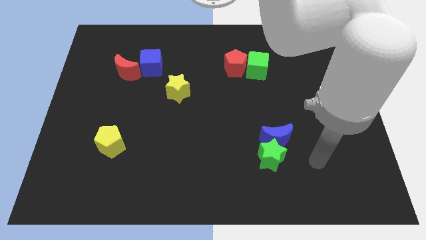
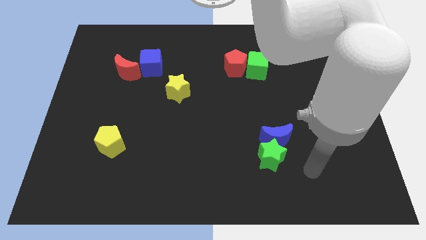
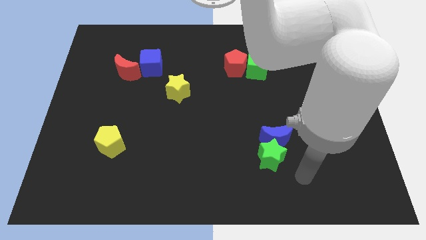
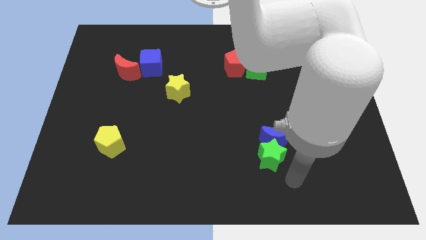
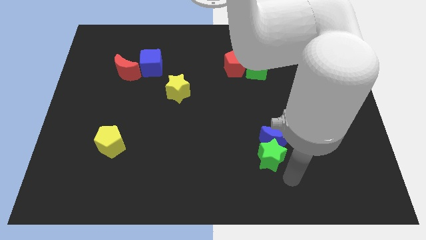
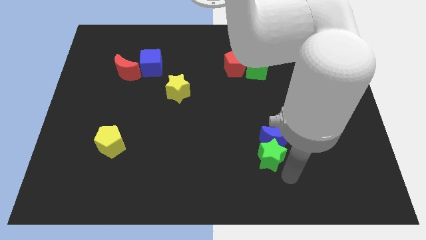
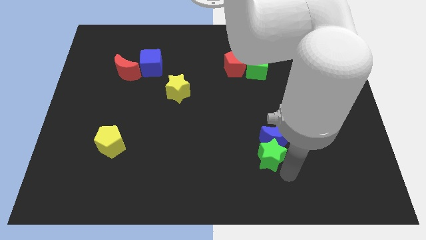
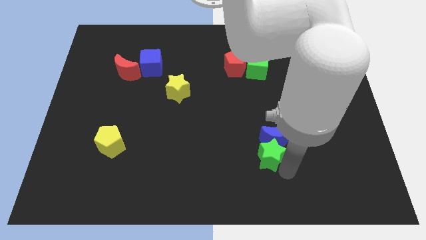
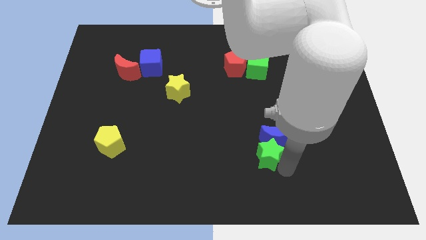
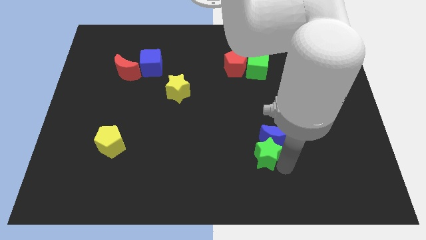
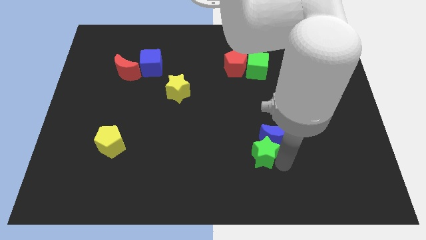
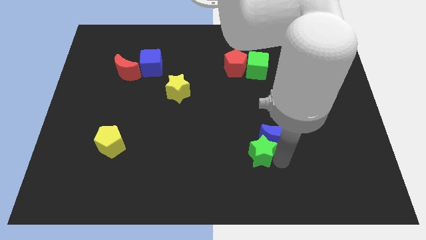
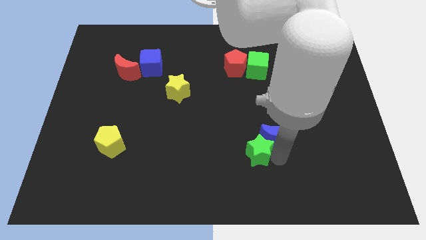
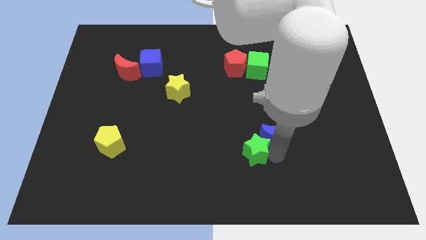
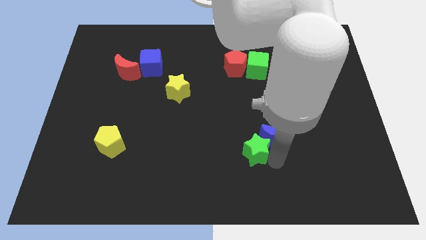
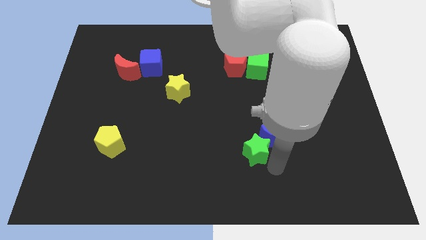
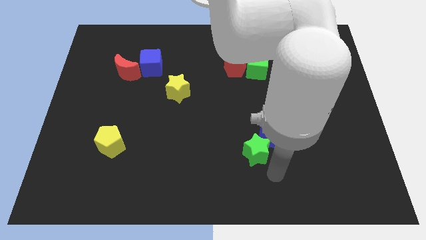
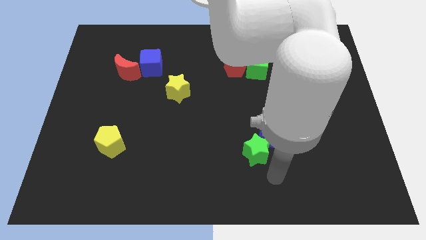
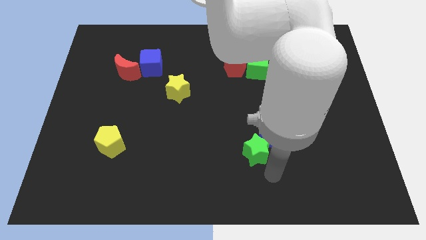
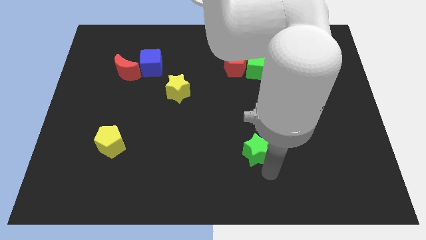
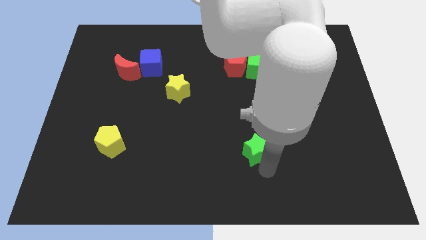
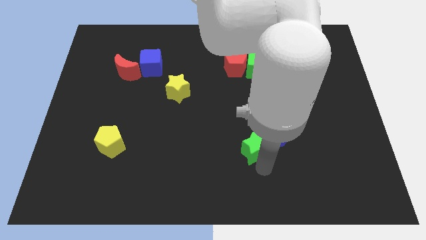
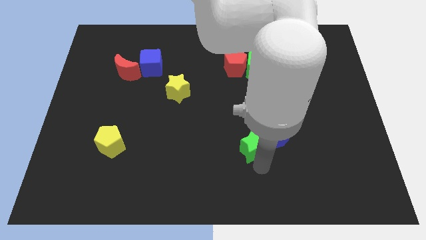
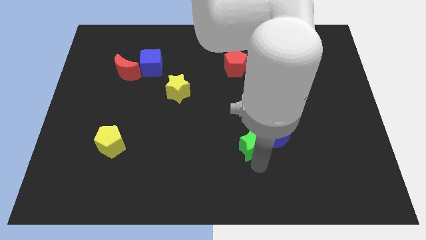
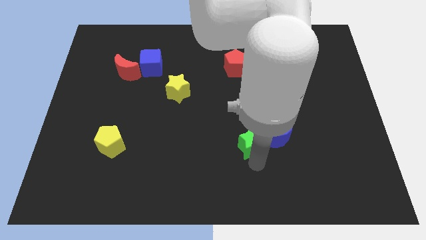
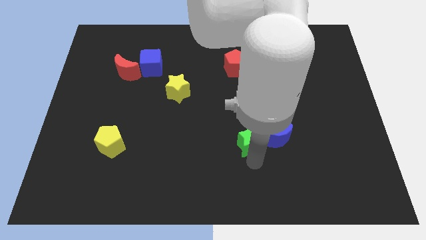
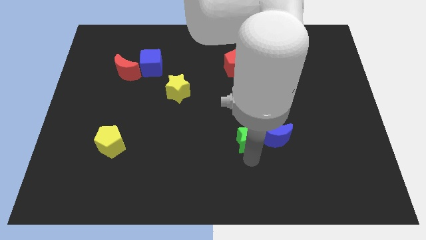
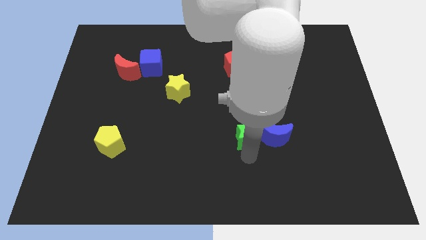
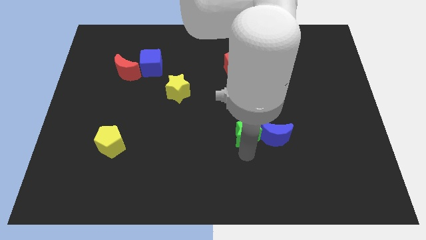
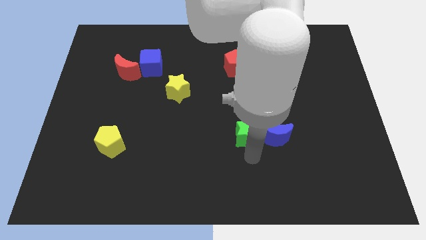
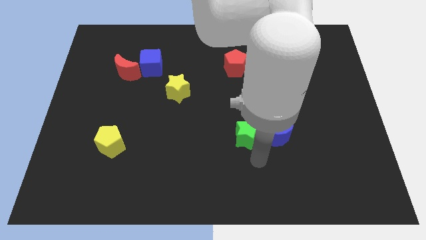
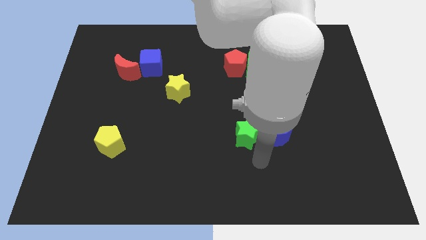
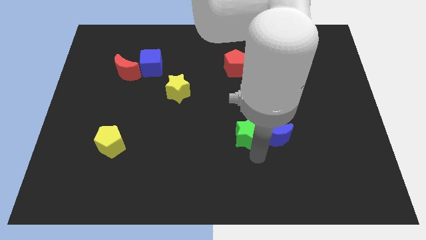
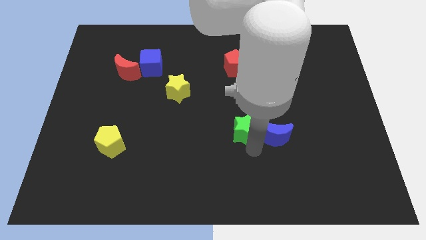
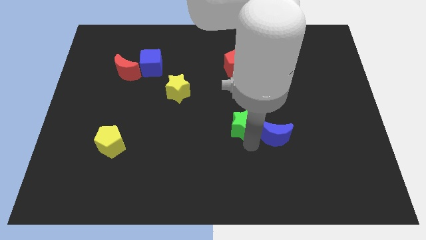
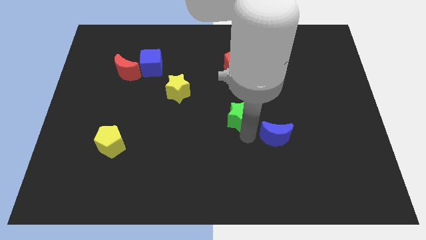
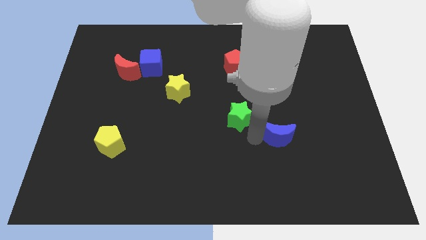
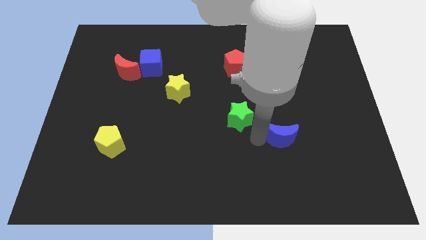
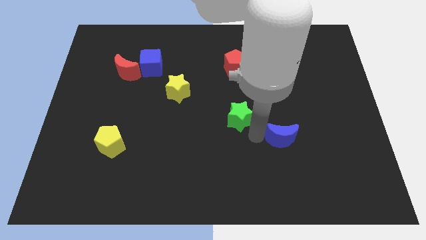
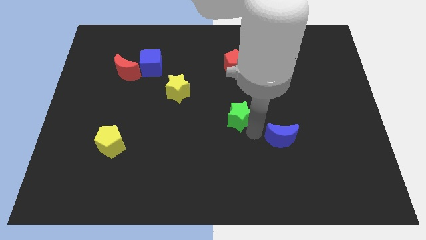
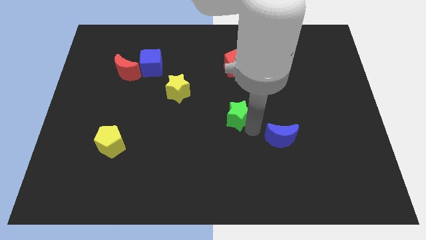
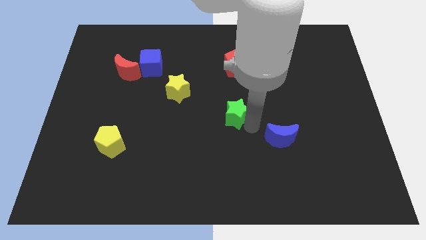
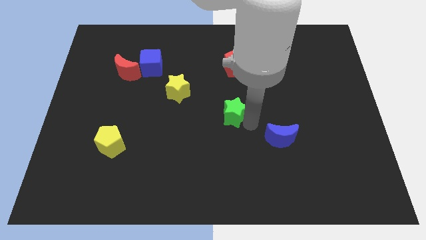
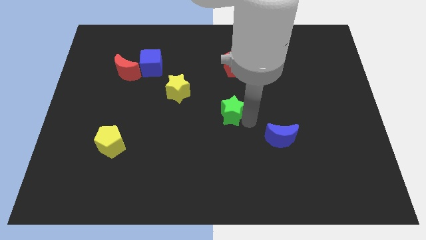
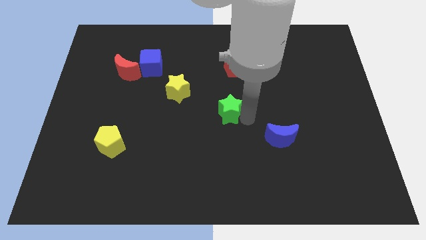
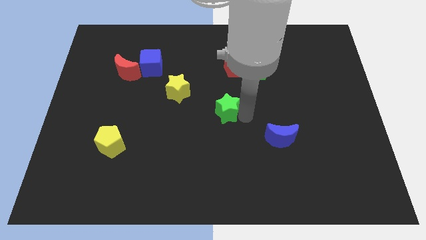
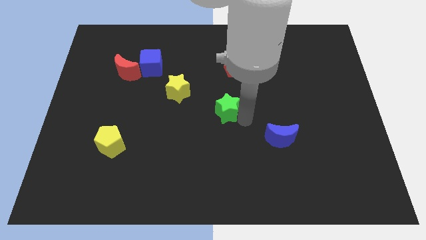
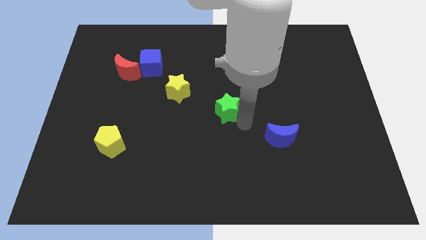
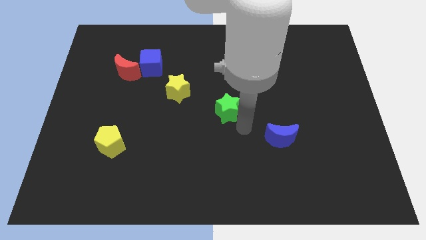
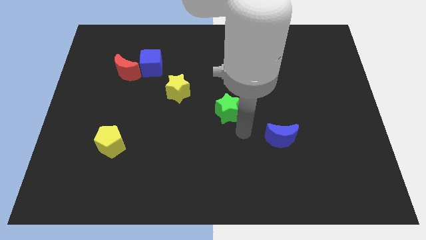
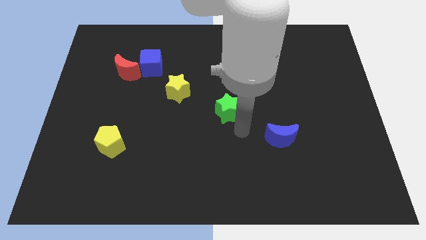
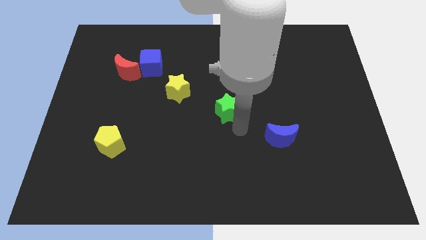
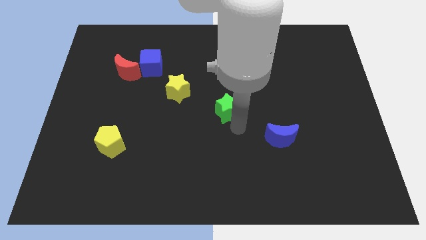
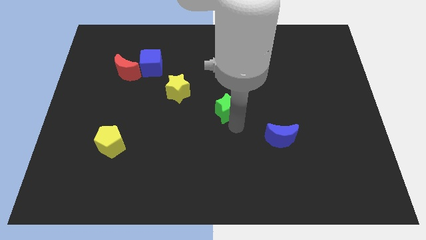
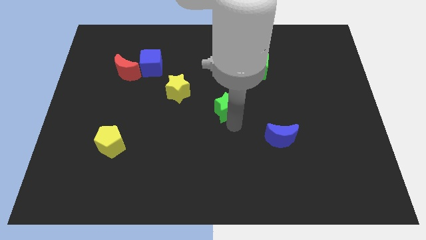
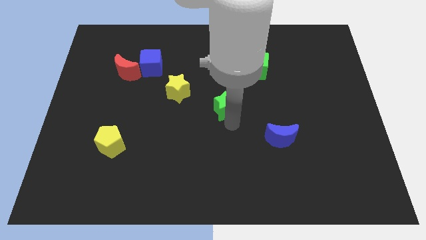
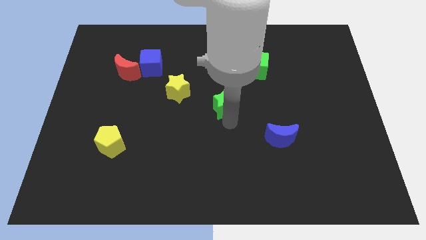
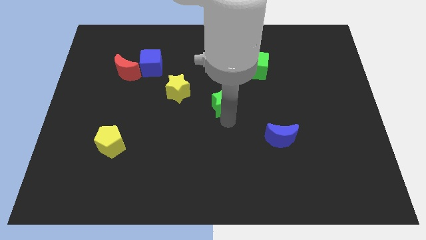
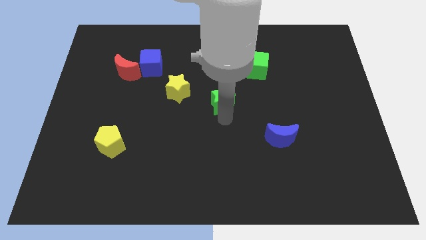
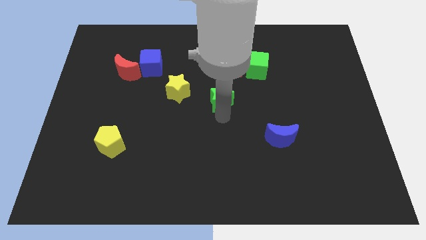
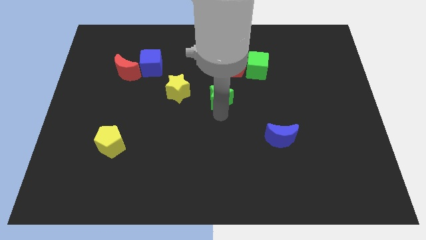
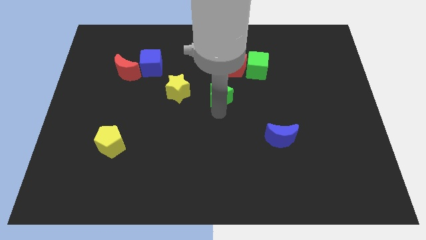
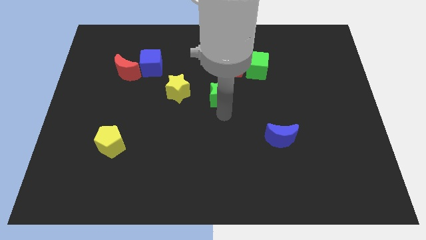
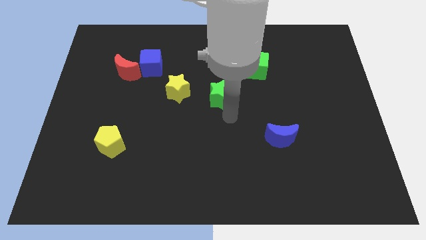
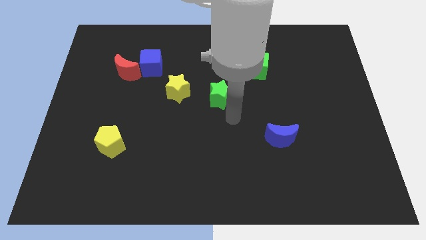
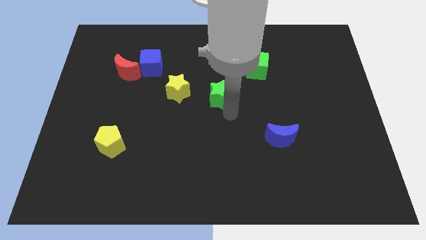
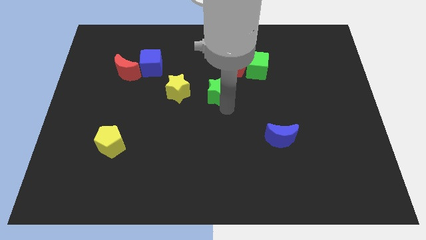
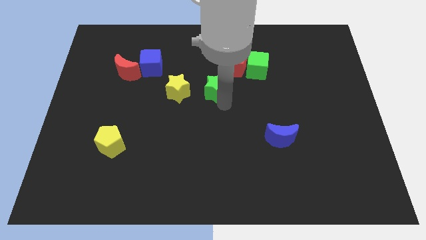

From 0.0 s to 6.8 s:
push the green star up and to the left diagonally

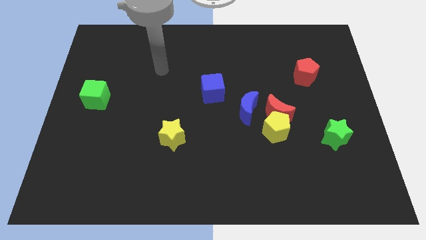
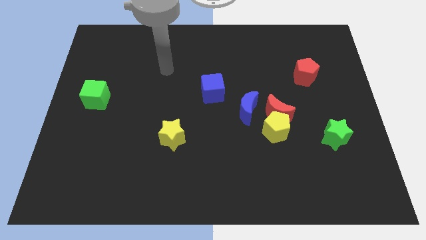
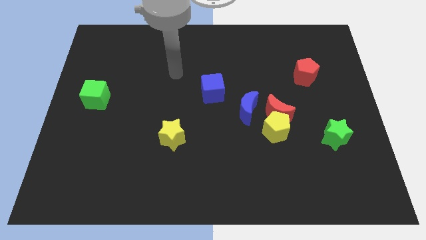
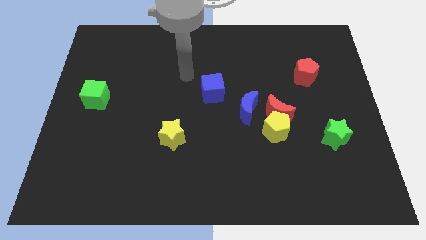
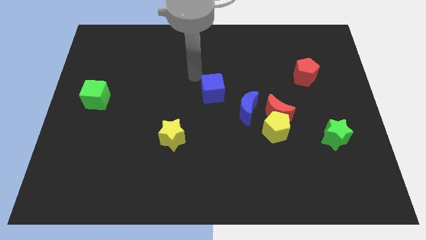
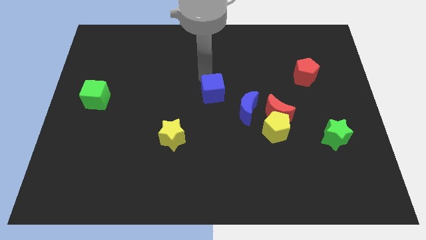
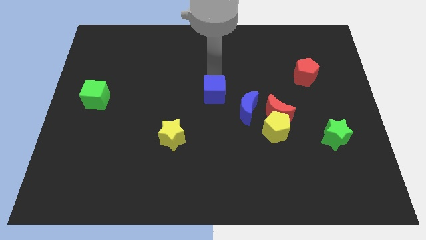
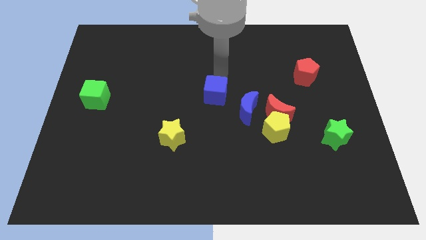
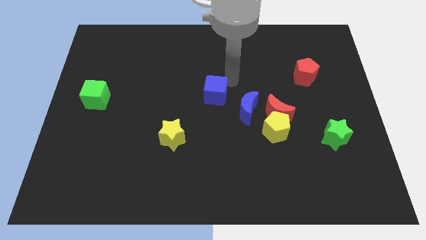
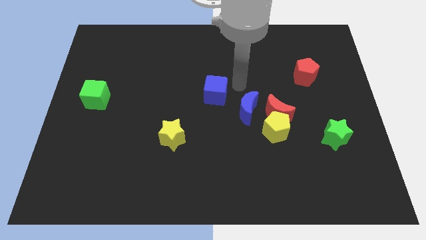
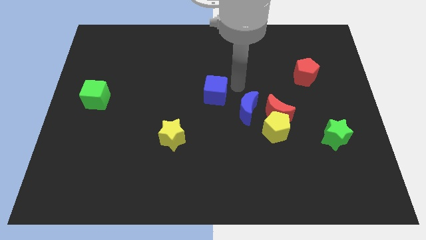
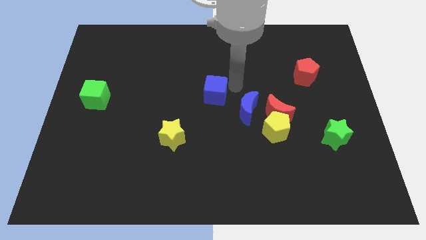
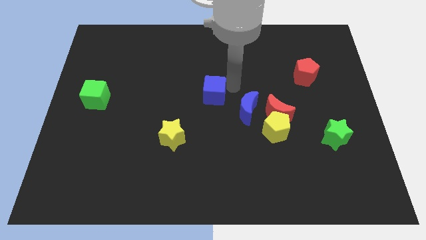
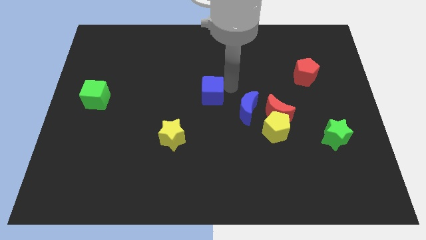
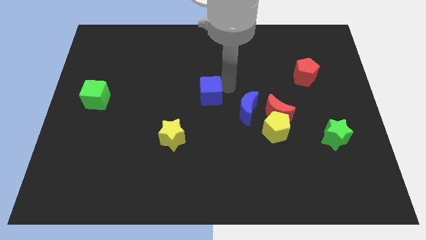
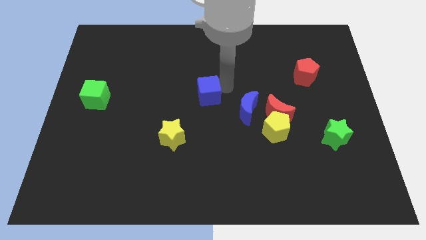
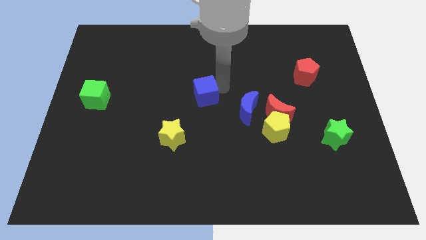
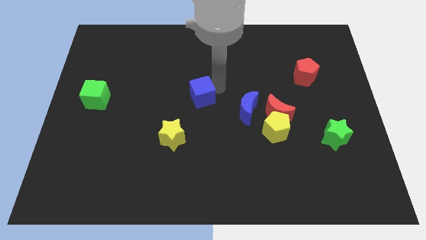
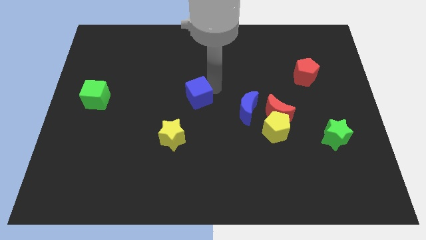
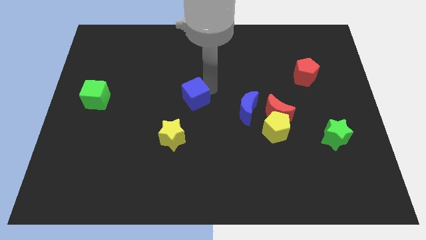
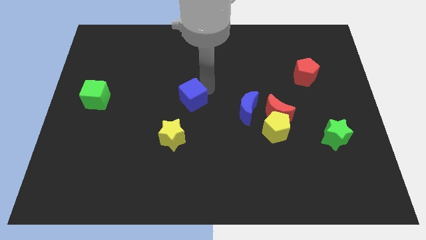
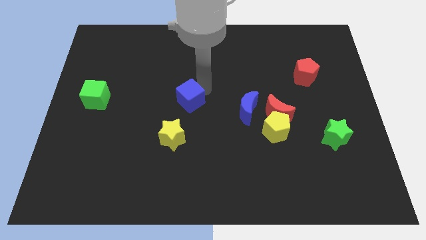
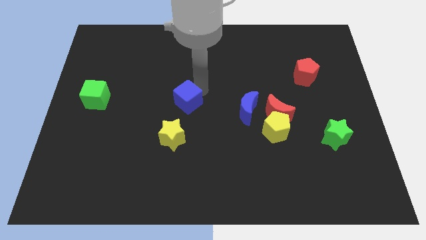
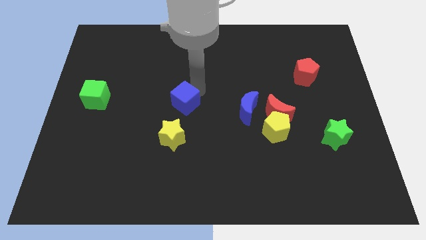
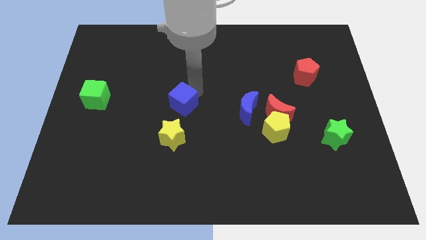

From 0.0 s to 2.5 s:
push the blue cube down and then left a little
